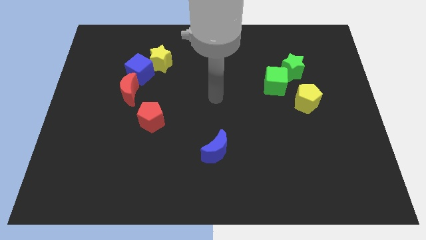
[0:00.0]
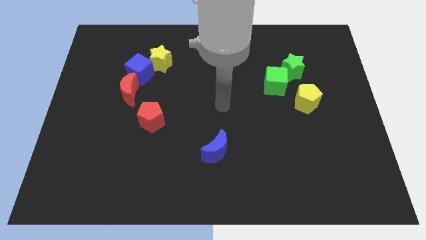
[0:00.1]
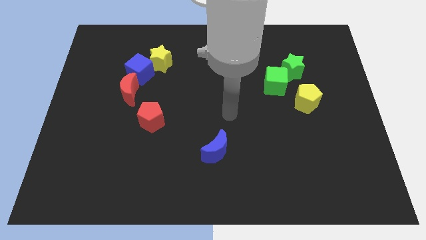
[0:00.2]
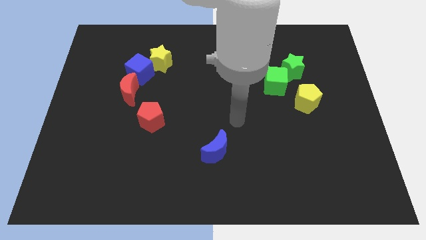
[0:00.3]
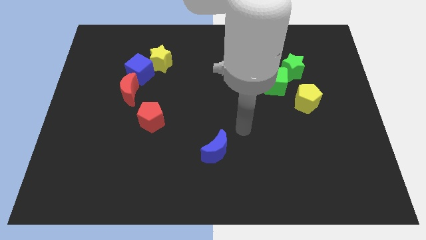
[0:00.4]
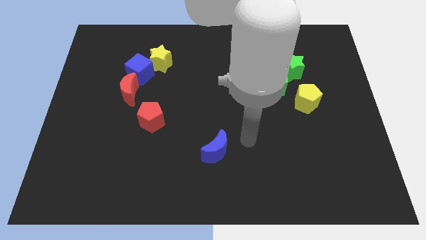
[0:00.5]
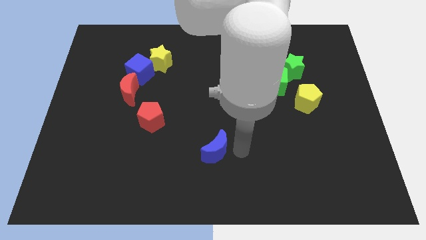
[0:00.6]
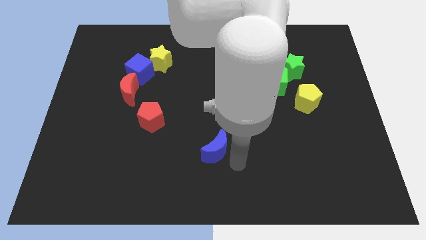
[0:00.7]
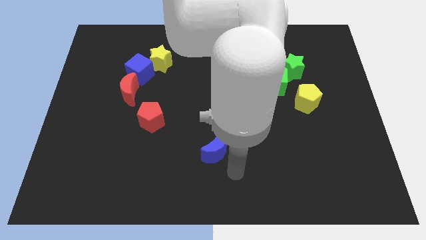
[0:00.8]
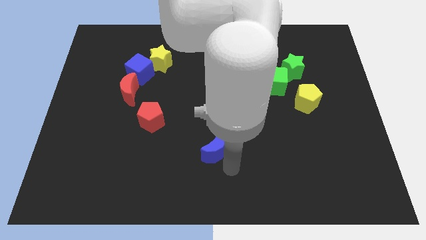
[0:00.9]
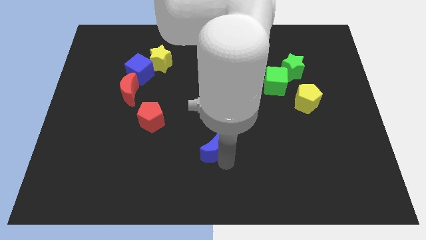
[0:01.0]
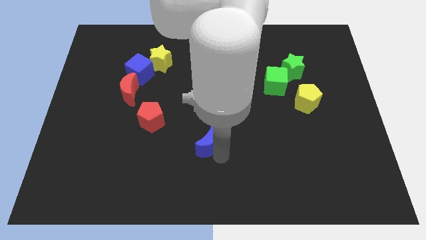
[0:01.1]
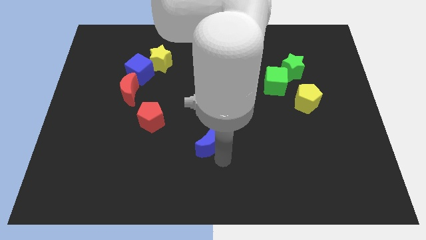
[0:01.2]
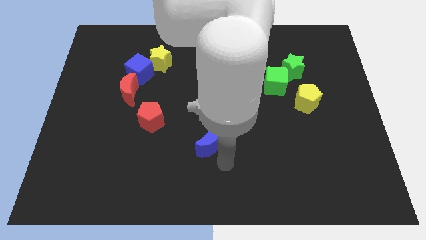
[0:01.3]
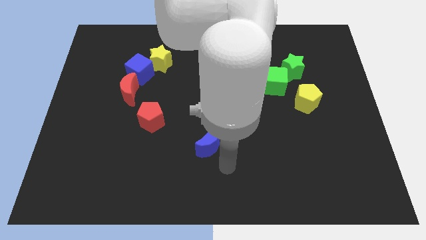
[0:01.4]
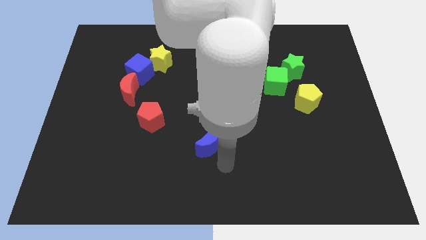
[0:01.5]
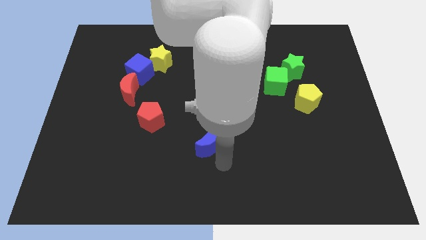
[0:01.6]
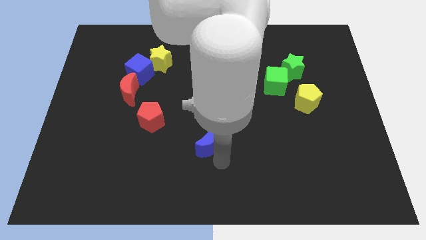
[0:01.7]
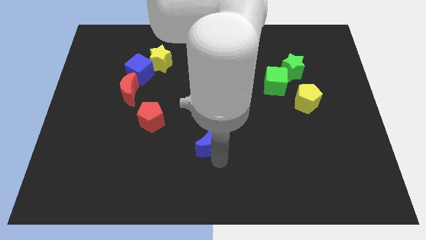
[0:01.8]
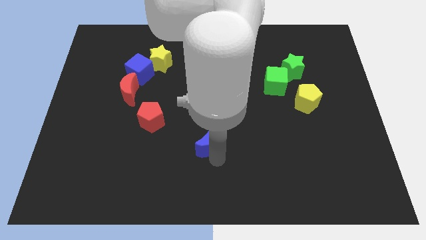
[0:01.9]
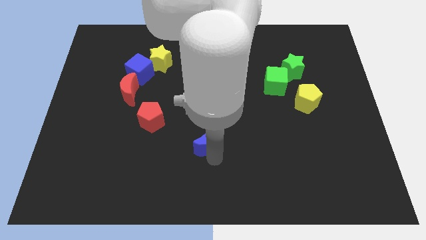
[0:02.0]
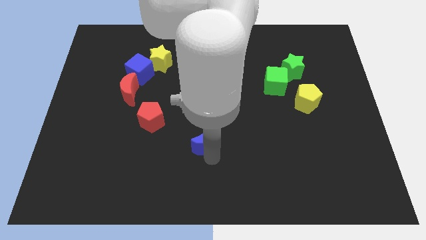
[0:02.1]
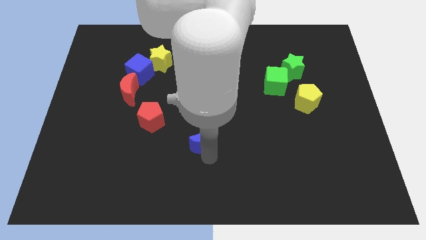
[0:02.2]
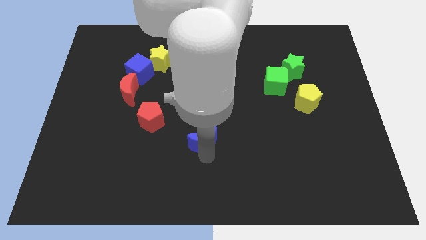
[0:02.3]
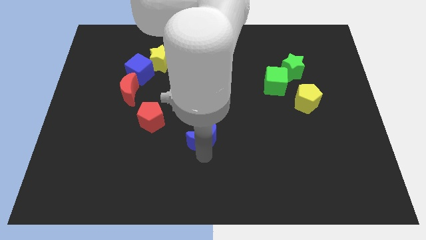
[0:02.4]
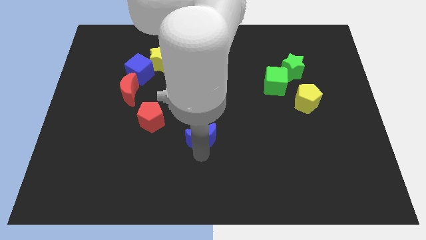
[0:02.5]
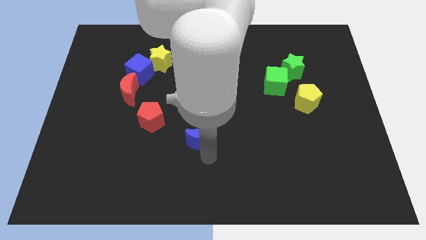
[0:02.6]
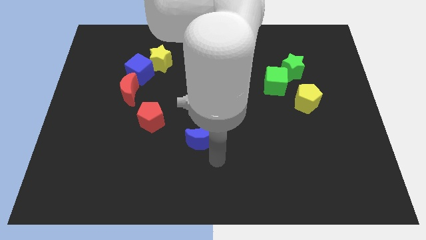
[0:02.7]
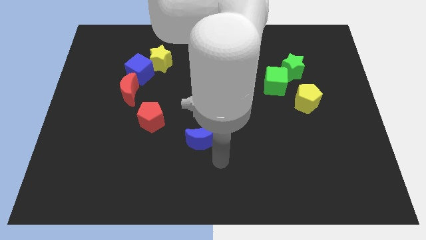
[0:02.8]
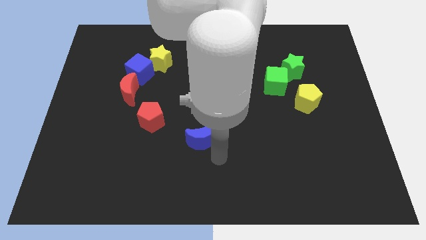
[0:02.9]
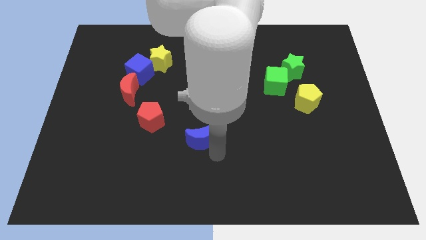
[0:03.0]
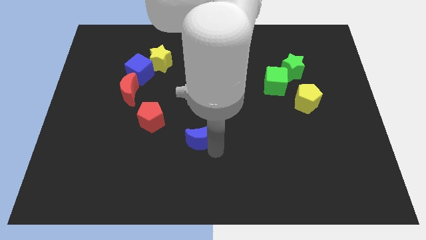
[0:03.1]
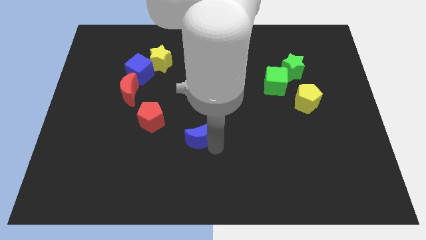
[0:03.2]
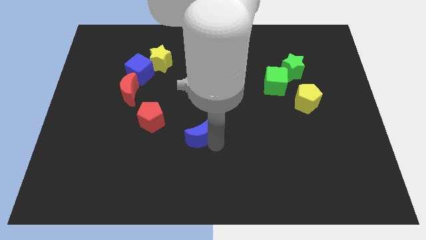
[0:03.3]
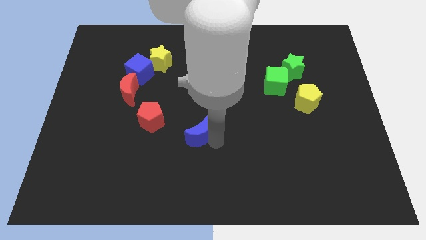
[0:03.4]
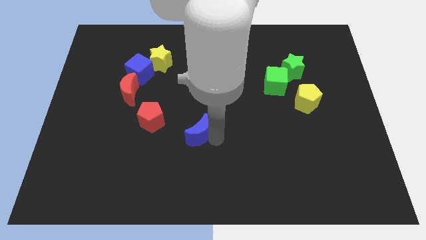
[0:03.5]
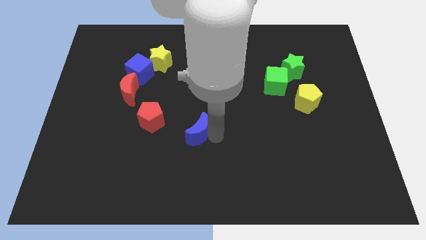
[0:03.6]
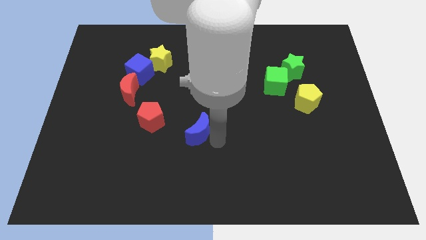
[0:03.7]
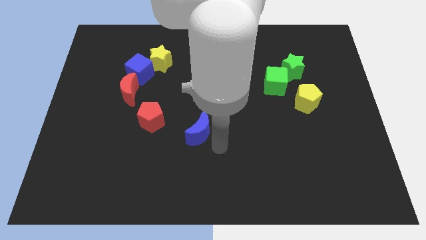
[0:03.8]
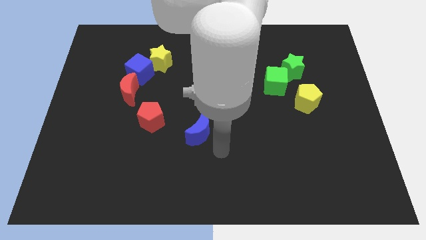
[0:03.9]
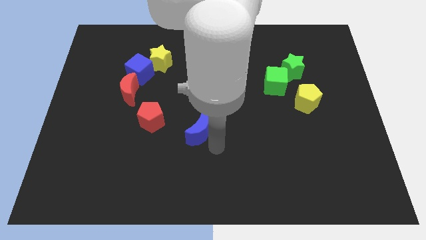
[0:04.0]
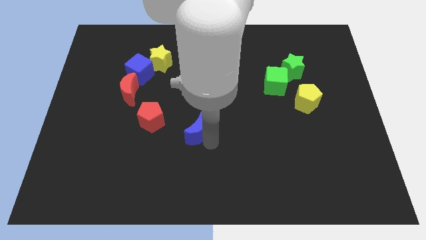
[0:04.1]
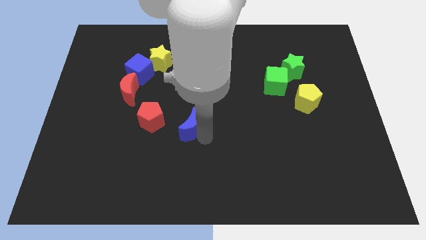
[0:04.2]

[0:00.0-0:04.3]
push the blue moon a little bit upwards and left diagonally

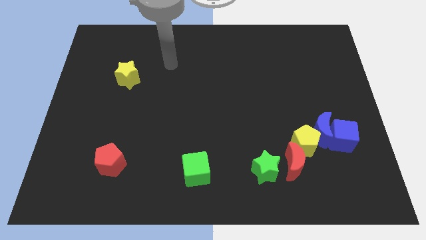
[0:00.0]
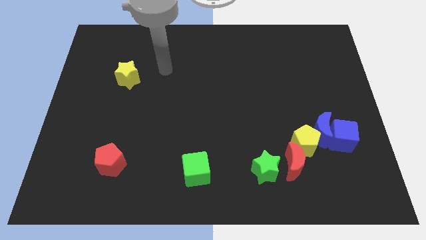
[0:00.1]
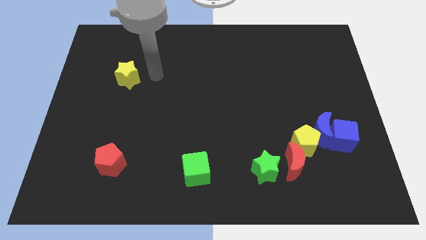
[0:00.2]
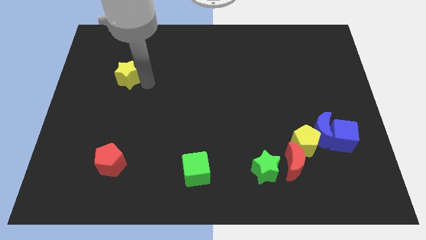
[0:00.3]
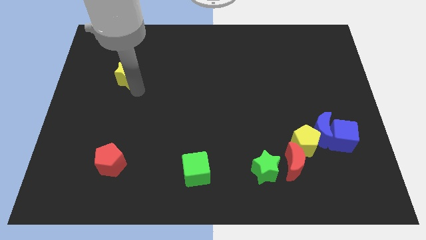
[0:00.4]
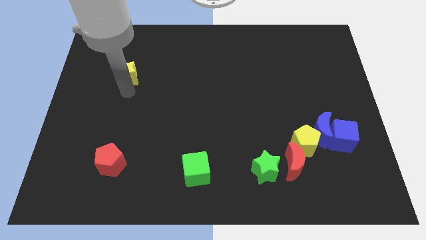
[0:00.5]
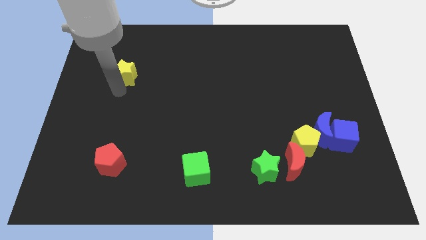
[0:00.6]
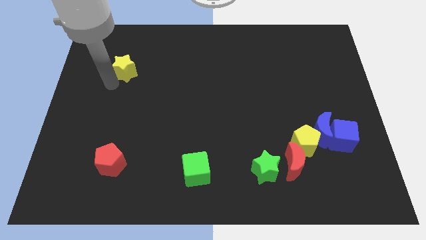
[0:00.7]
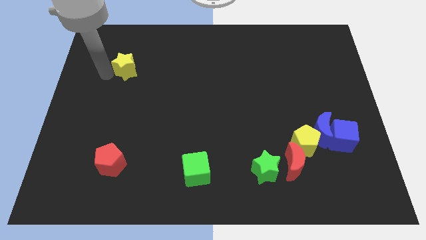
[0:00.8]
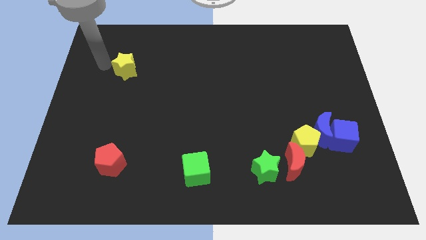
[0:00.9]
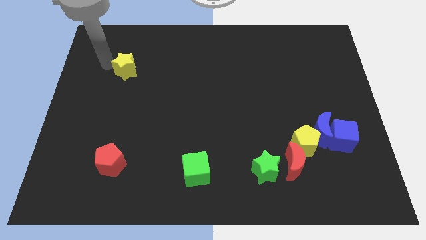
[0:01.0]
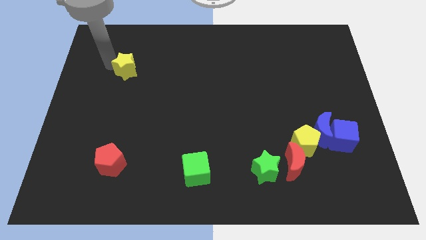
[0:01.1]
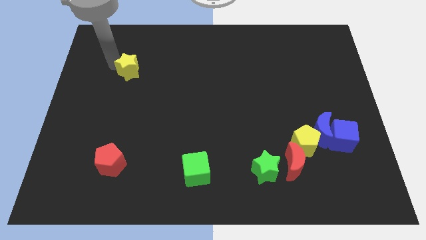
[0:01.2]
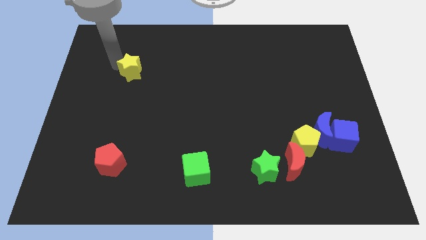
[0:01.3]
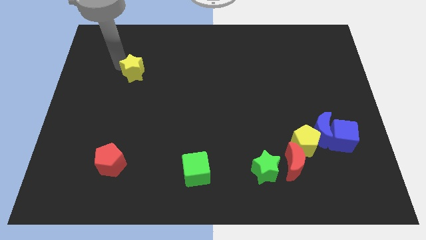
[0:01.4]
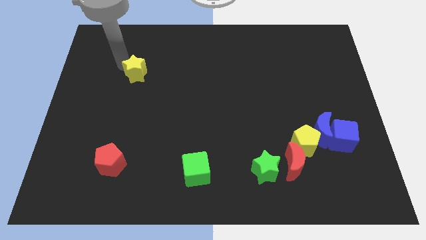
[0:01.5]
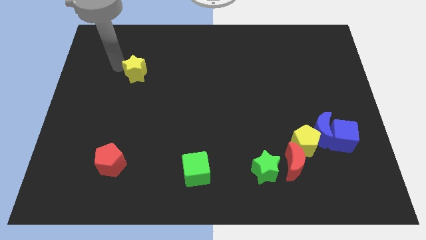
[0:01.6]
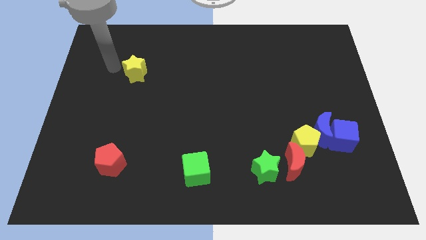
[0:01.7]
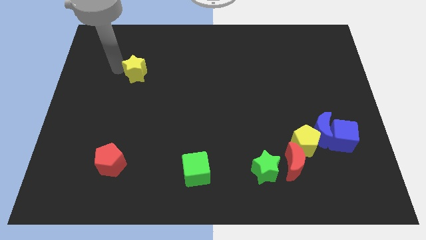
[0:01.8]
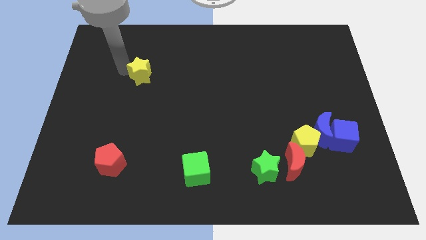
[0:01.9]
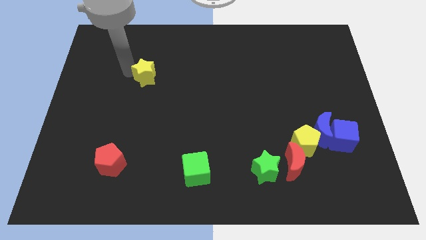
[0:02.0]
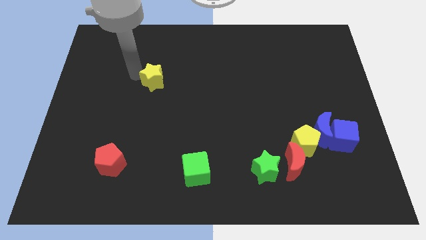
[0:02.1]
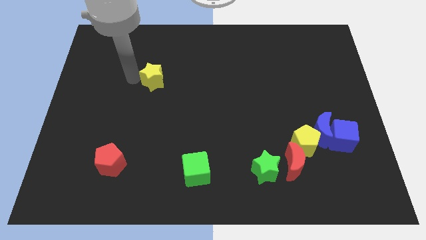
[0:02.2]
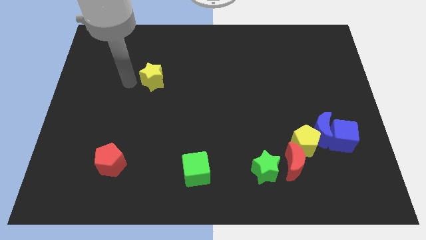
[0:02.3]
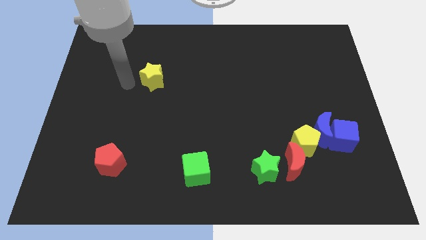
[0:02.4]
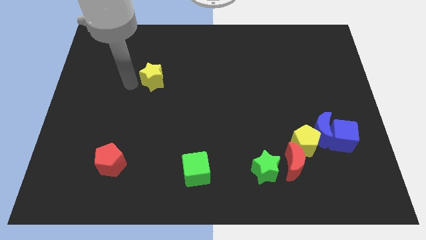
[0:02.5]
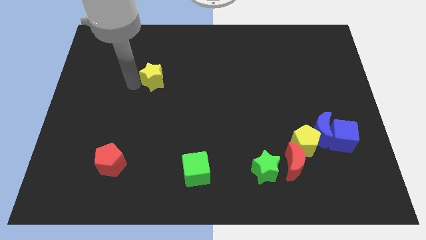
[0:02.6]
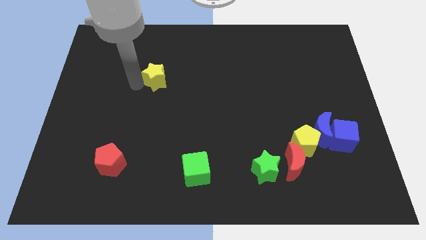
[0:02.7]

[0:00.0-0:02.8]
slightly move the yellow star to the right

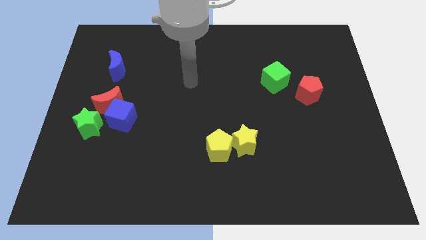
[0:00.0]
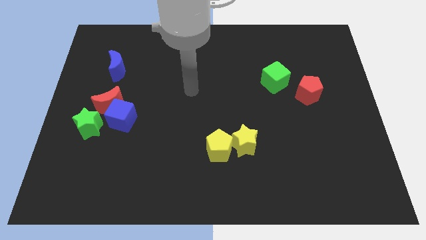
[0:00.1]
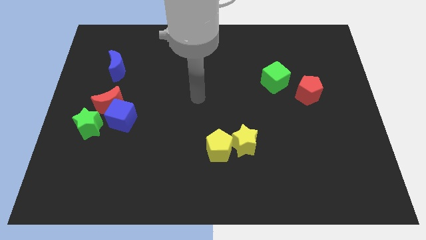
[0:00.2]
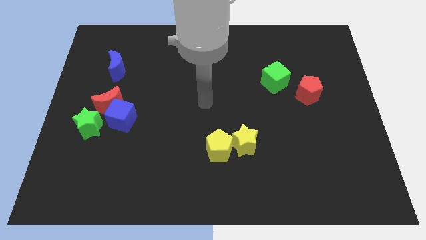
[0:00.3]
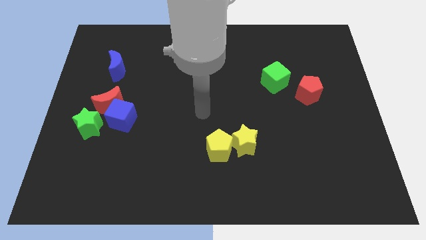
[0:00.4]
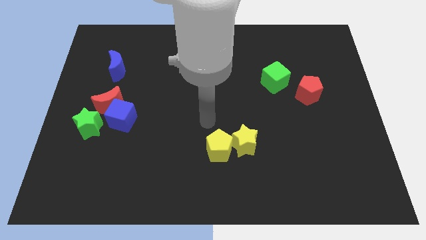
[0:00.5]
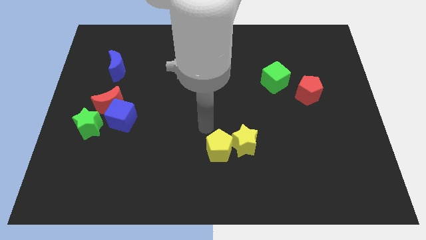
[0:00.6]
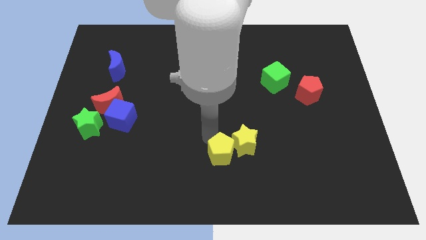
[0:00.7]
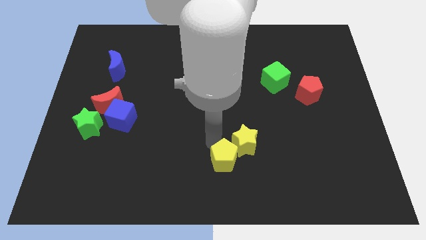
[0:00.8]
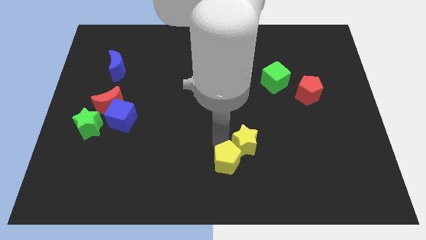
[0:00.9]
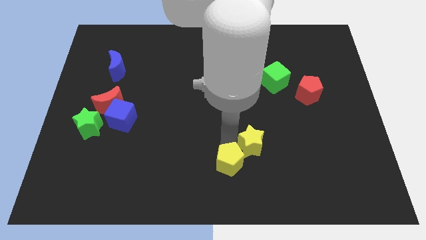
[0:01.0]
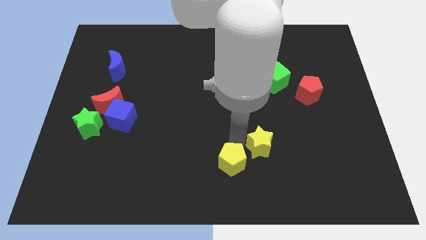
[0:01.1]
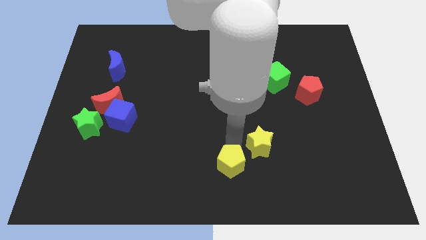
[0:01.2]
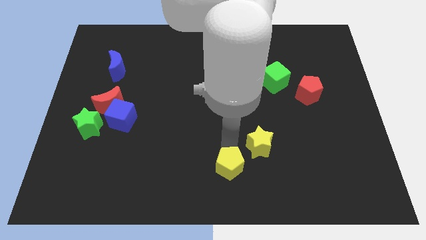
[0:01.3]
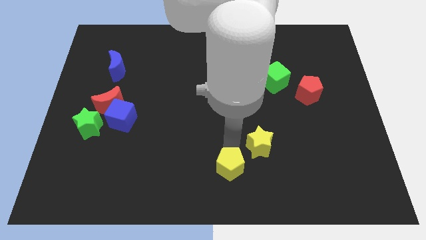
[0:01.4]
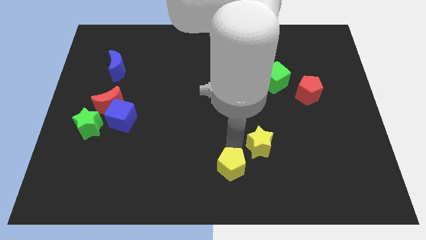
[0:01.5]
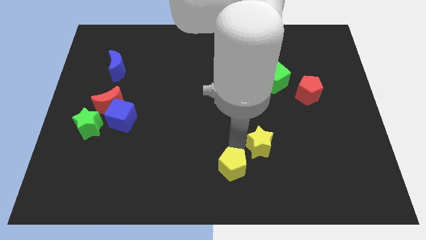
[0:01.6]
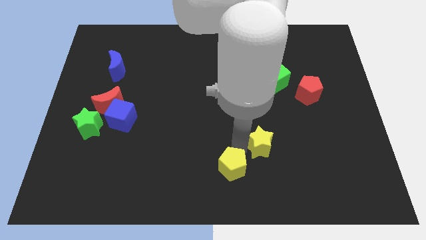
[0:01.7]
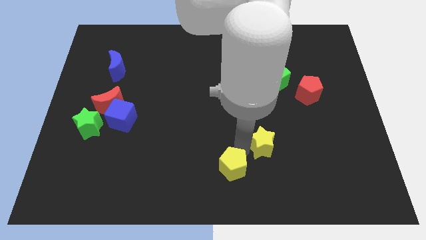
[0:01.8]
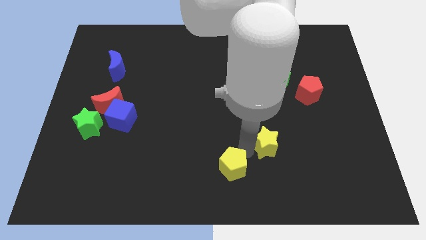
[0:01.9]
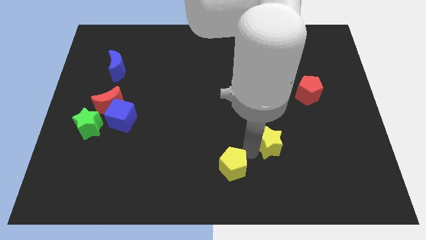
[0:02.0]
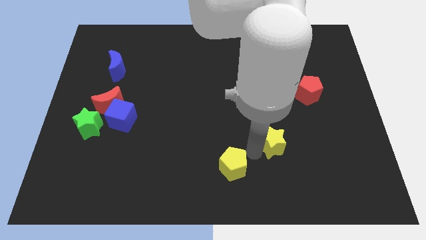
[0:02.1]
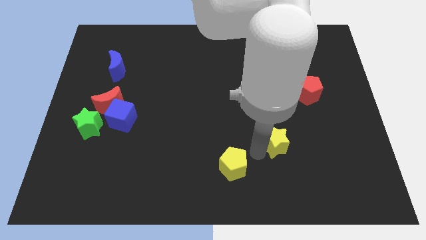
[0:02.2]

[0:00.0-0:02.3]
push the yellow star somewhat right
